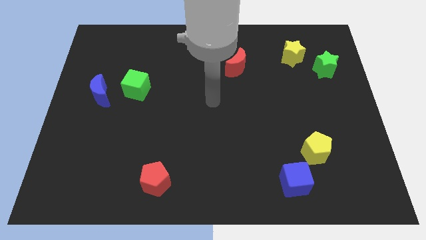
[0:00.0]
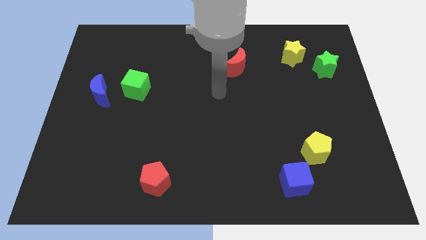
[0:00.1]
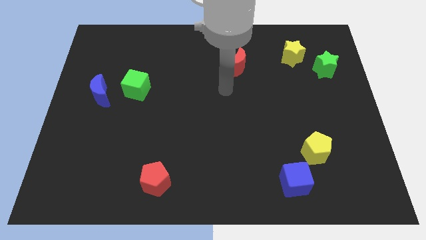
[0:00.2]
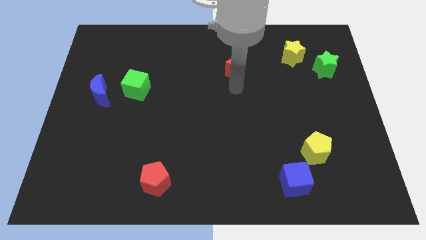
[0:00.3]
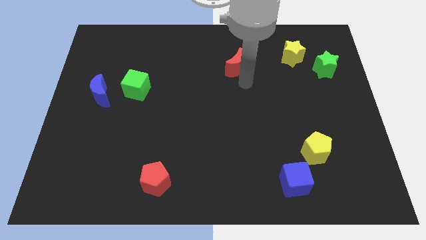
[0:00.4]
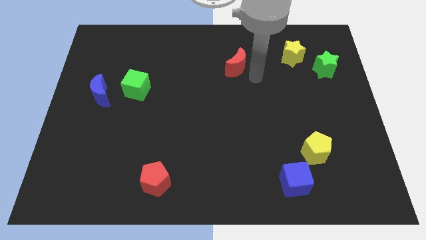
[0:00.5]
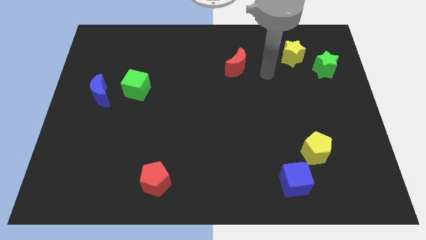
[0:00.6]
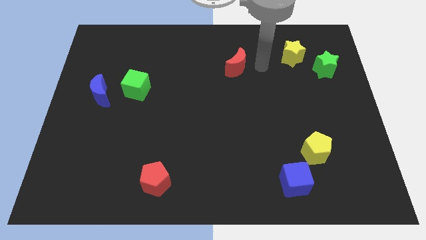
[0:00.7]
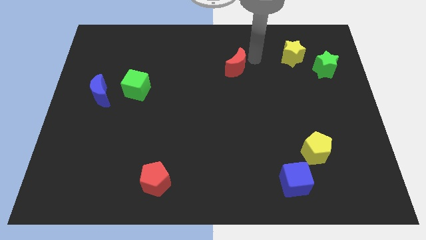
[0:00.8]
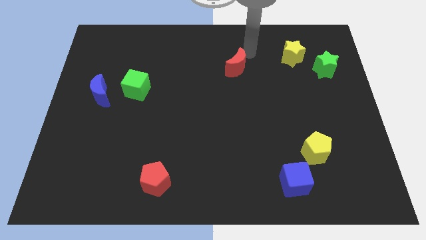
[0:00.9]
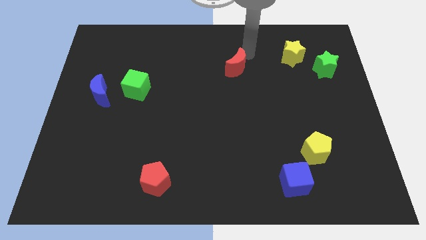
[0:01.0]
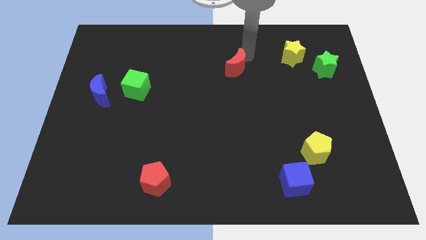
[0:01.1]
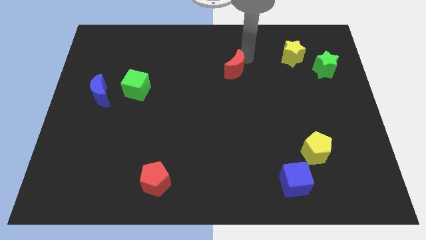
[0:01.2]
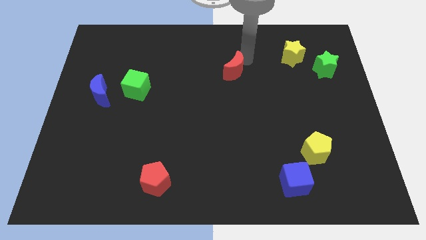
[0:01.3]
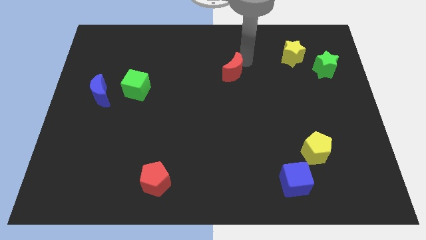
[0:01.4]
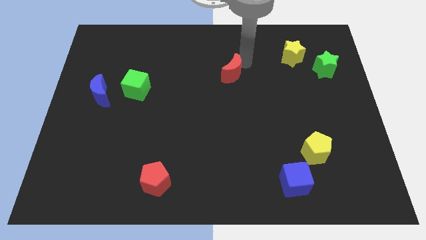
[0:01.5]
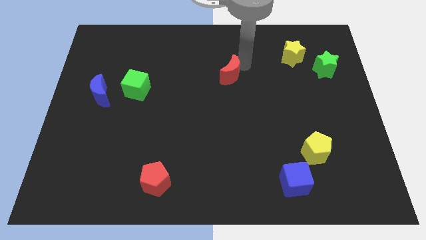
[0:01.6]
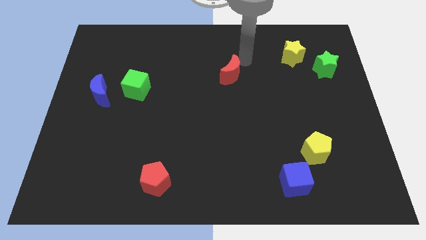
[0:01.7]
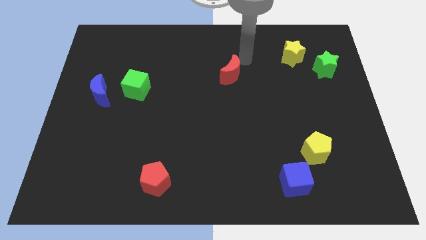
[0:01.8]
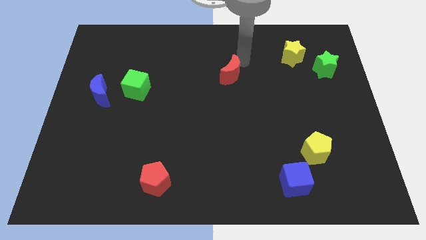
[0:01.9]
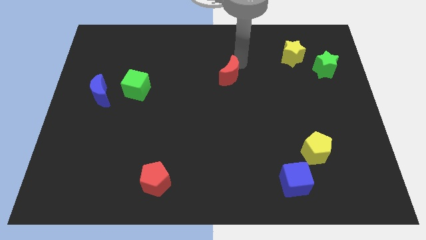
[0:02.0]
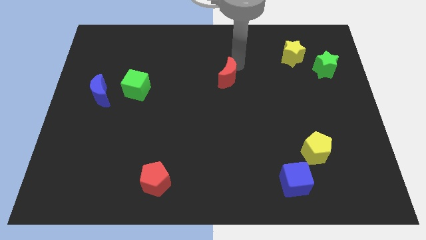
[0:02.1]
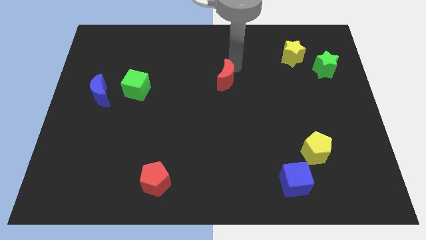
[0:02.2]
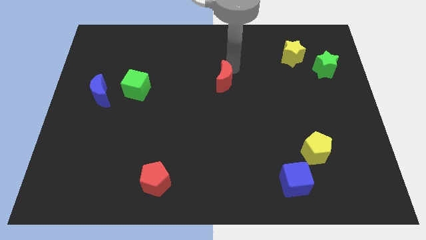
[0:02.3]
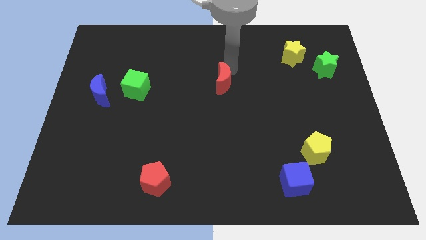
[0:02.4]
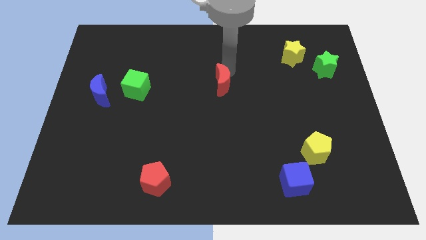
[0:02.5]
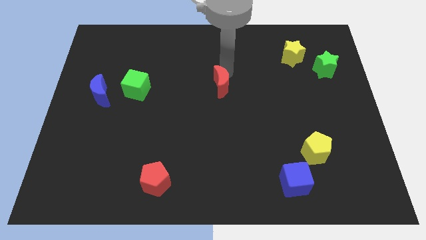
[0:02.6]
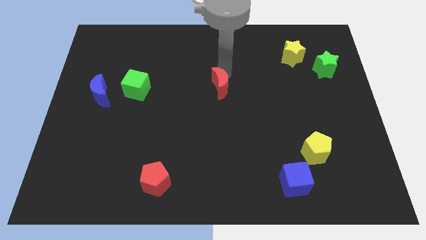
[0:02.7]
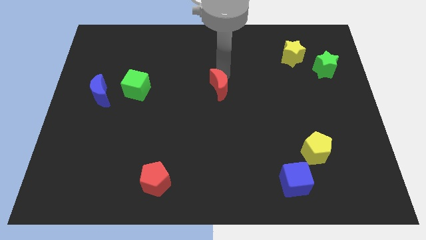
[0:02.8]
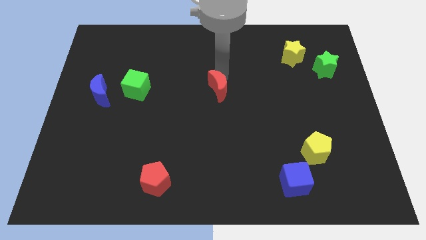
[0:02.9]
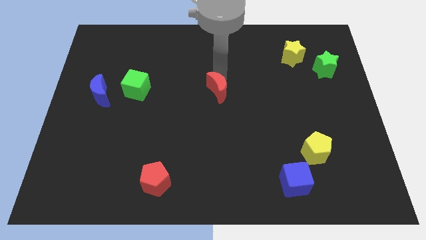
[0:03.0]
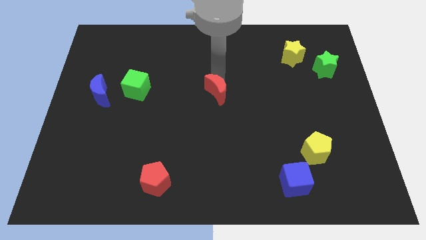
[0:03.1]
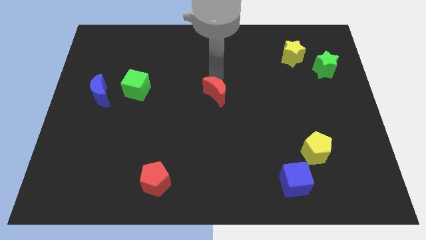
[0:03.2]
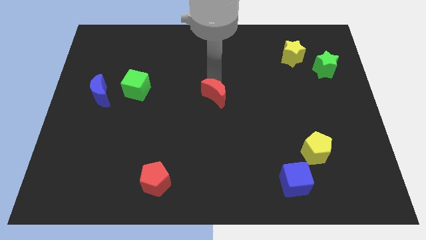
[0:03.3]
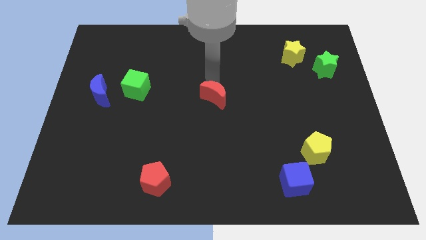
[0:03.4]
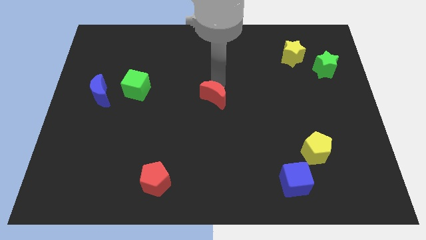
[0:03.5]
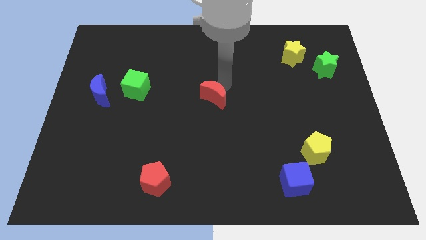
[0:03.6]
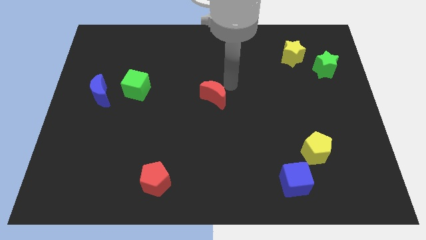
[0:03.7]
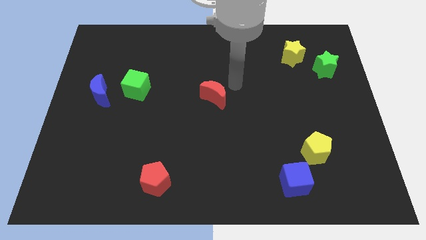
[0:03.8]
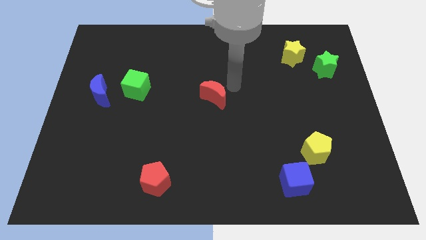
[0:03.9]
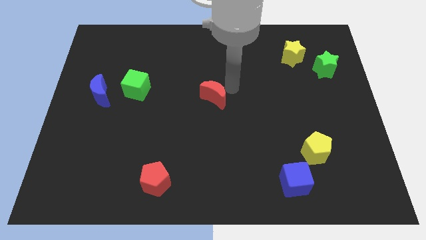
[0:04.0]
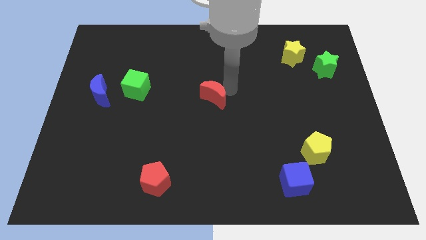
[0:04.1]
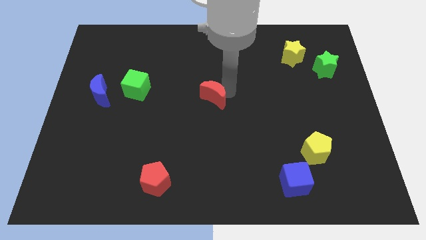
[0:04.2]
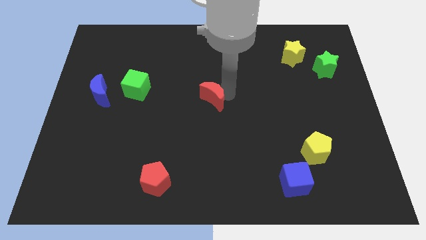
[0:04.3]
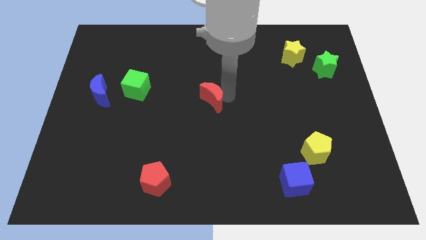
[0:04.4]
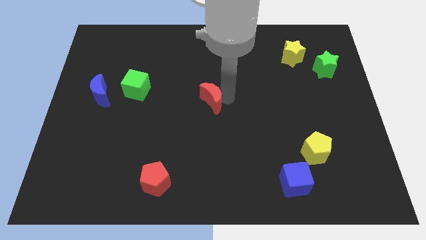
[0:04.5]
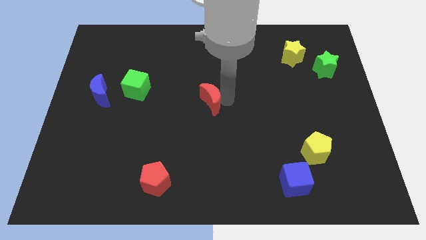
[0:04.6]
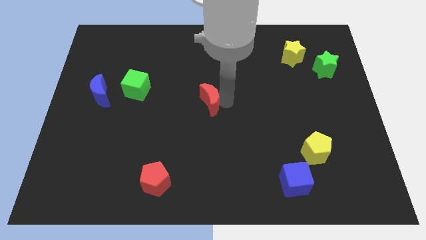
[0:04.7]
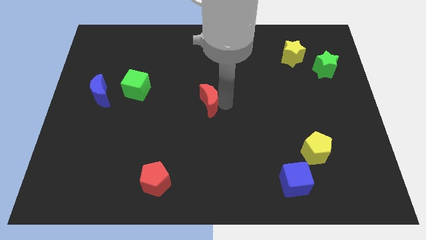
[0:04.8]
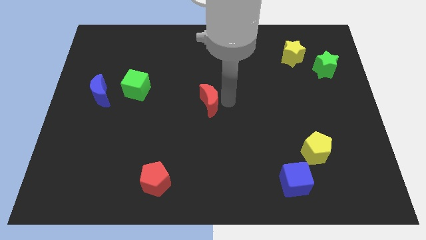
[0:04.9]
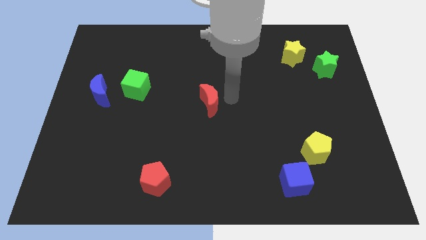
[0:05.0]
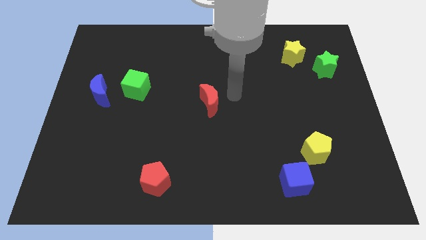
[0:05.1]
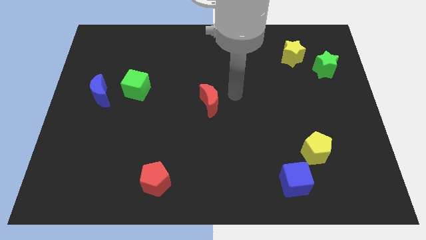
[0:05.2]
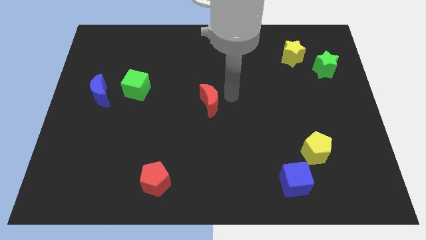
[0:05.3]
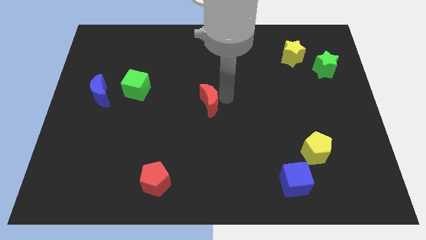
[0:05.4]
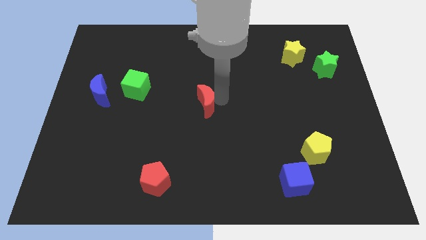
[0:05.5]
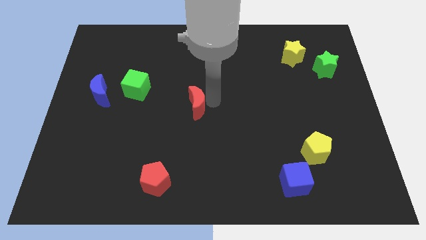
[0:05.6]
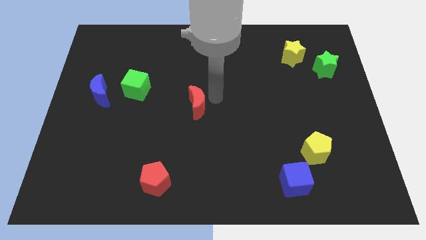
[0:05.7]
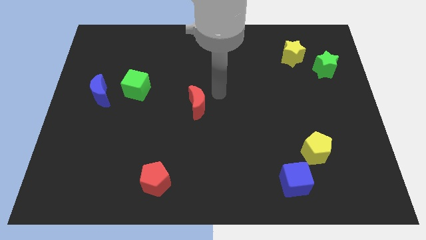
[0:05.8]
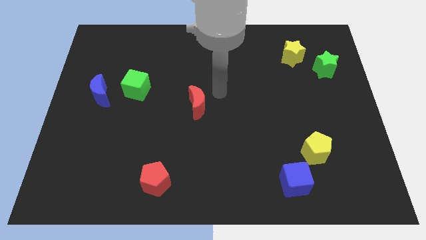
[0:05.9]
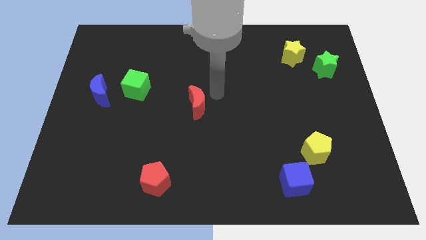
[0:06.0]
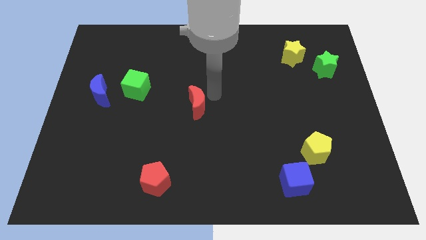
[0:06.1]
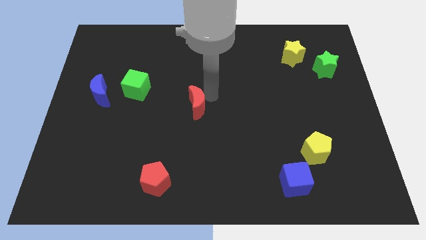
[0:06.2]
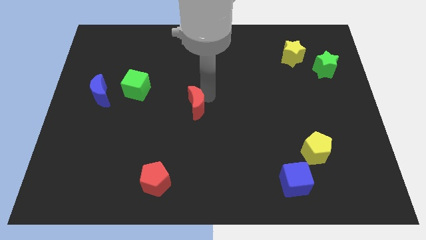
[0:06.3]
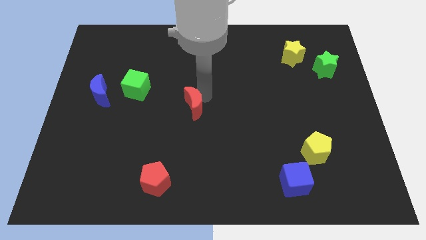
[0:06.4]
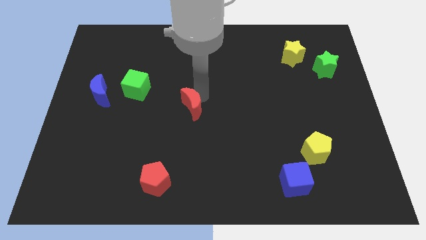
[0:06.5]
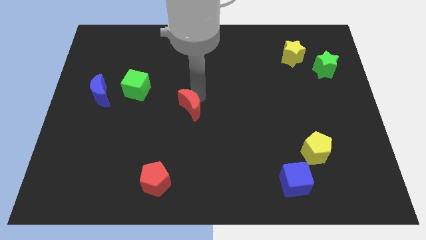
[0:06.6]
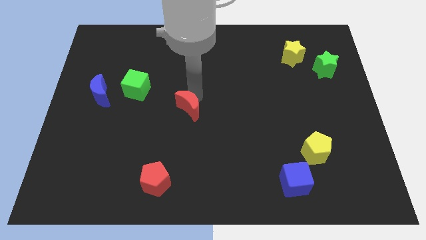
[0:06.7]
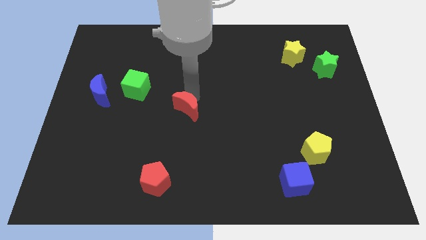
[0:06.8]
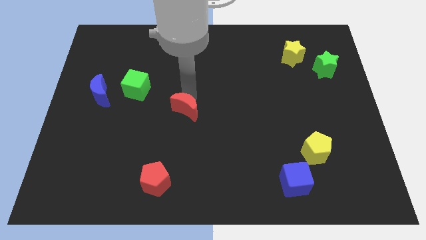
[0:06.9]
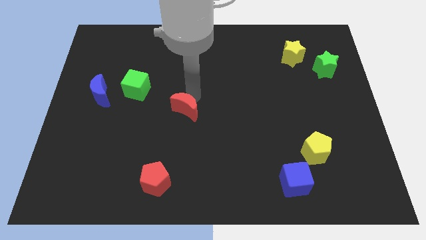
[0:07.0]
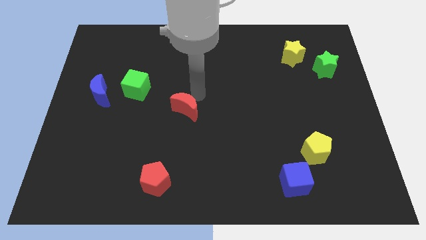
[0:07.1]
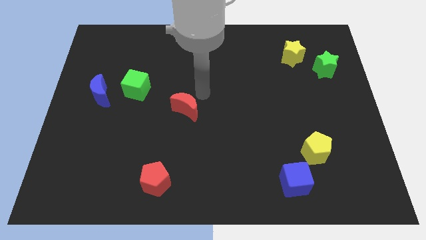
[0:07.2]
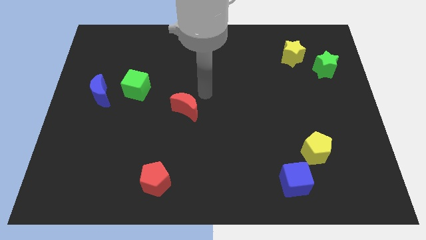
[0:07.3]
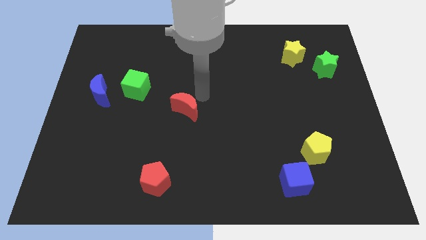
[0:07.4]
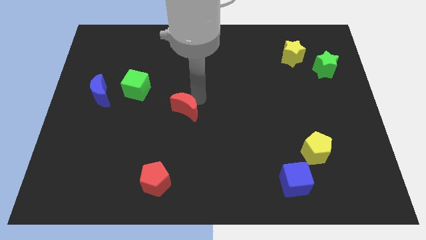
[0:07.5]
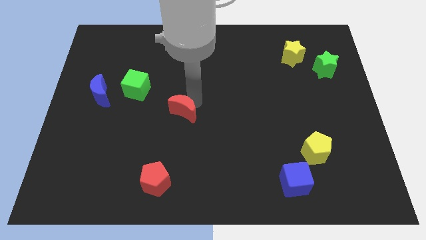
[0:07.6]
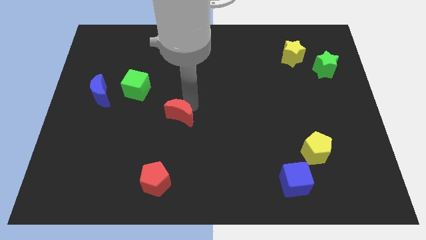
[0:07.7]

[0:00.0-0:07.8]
push the red moon down and to the left
